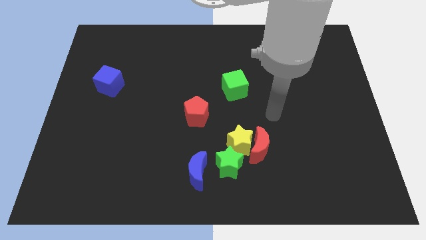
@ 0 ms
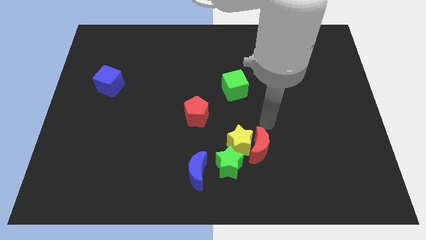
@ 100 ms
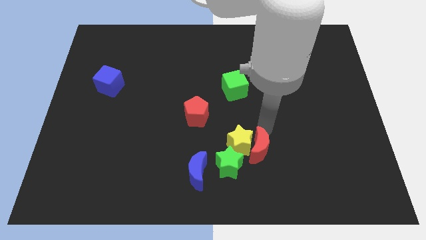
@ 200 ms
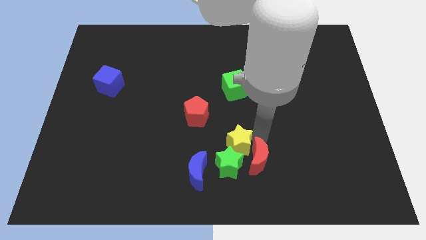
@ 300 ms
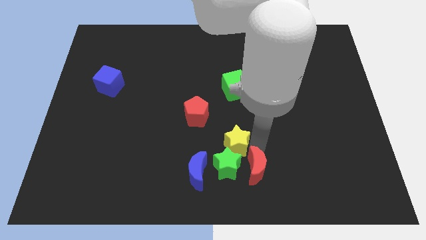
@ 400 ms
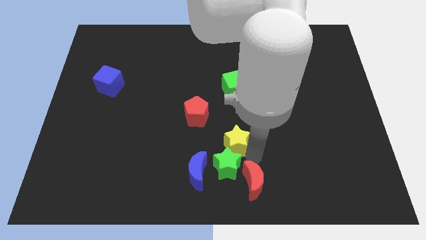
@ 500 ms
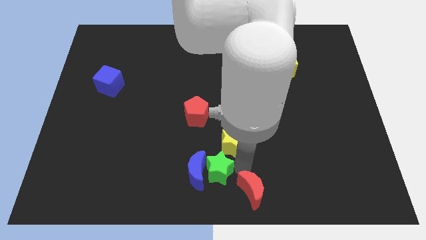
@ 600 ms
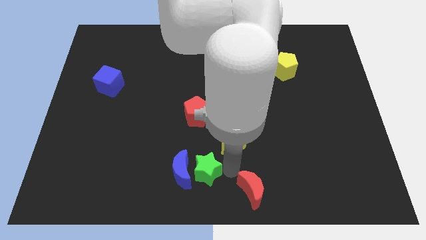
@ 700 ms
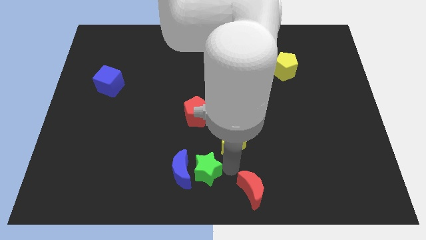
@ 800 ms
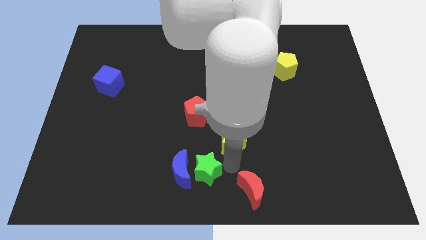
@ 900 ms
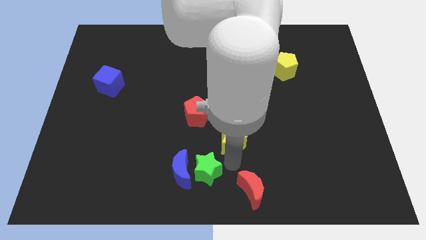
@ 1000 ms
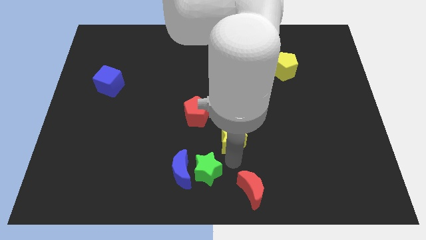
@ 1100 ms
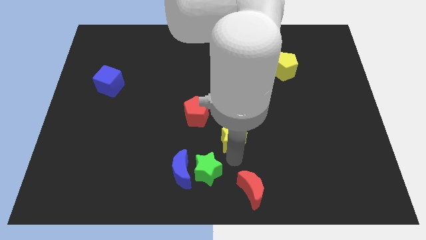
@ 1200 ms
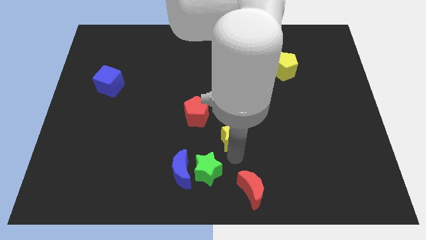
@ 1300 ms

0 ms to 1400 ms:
separate the yellow star from the red moon and green star

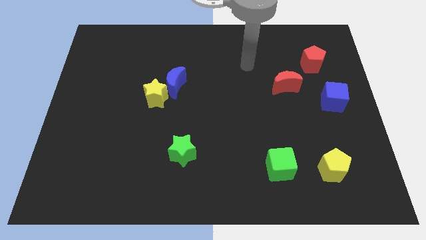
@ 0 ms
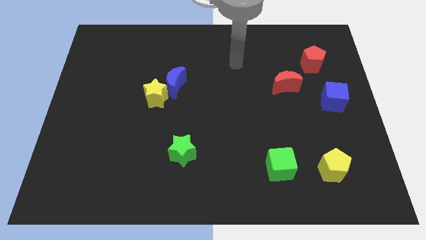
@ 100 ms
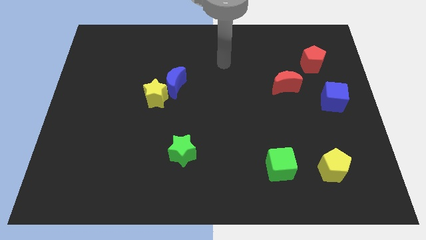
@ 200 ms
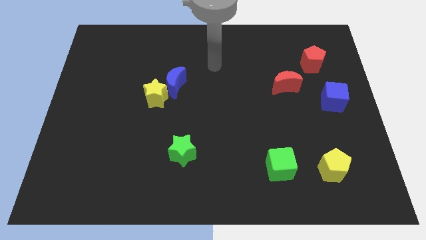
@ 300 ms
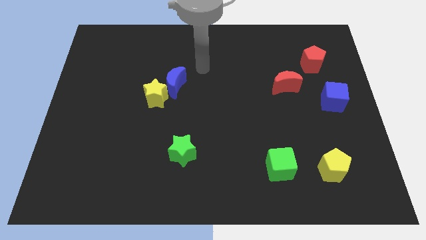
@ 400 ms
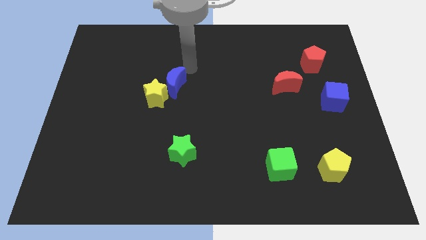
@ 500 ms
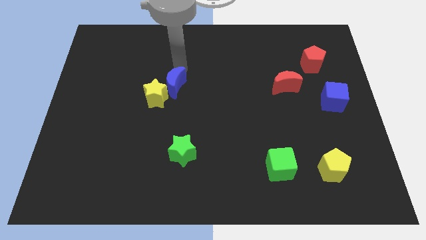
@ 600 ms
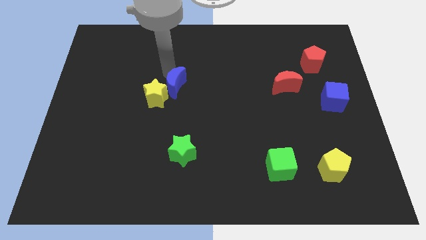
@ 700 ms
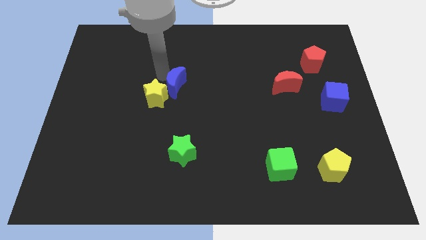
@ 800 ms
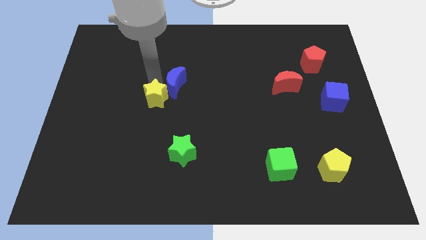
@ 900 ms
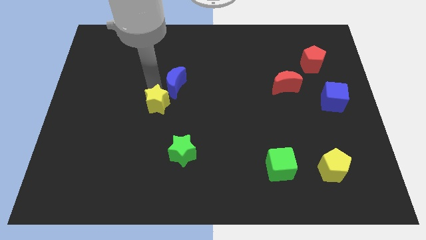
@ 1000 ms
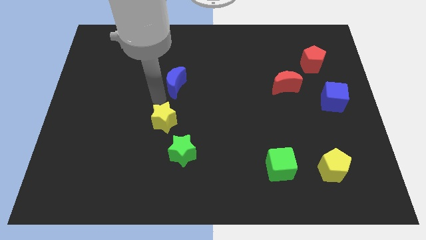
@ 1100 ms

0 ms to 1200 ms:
pull the blue moon apart from the yellow star

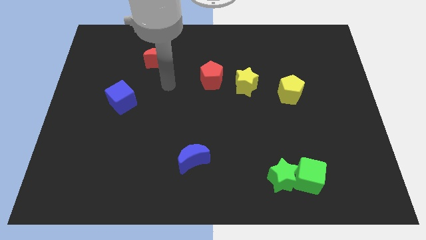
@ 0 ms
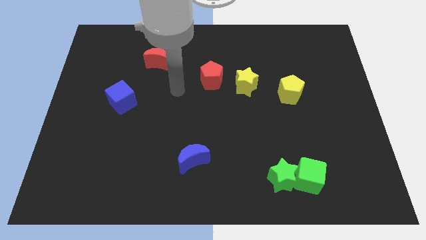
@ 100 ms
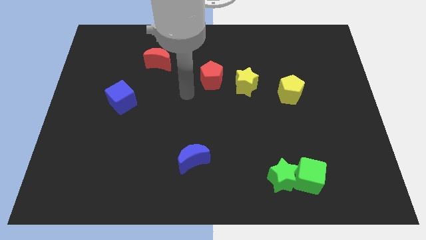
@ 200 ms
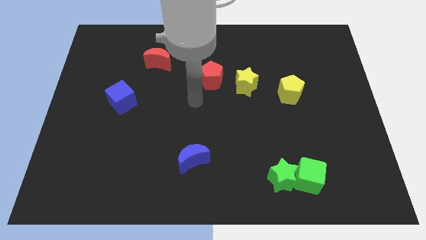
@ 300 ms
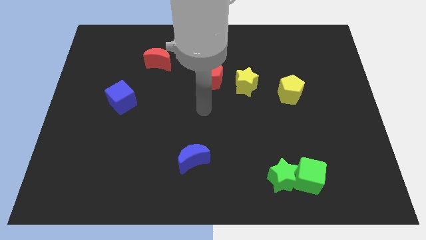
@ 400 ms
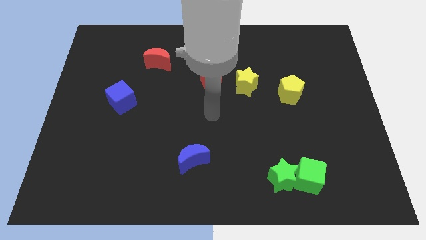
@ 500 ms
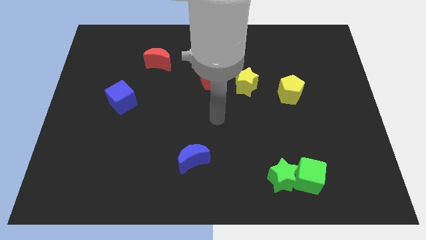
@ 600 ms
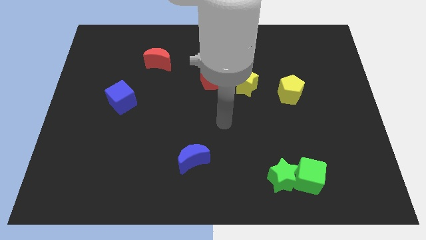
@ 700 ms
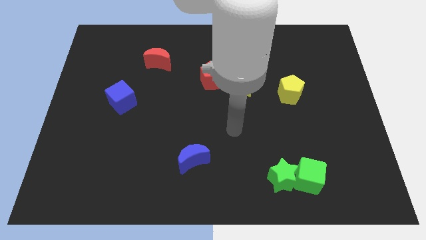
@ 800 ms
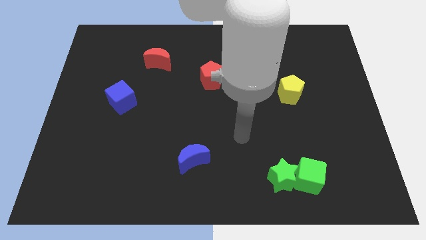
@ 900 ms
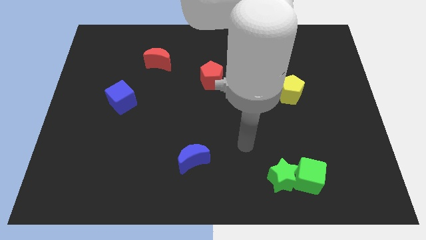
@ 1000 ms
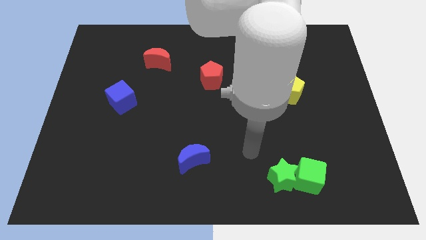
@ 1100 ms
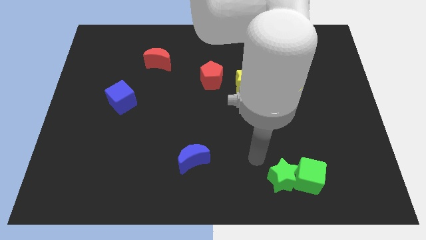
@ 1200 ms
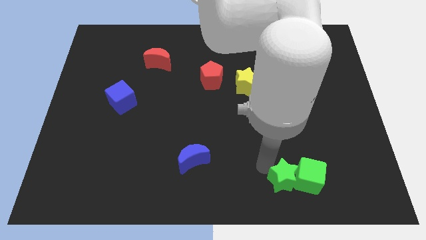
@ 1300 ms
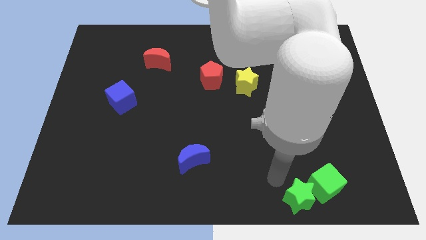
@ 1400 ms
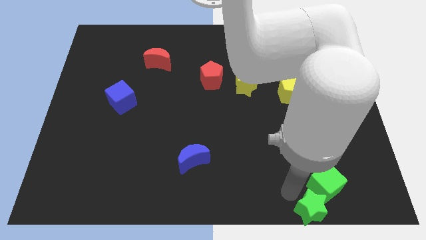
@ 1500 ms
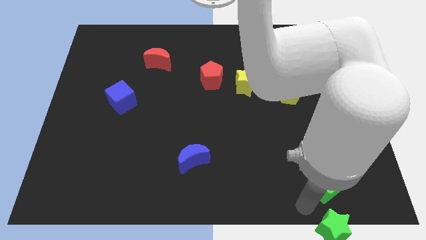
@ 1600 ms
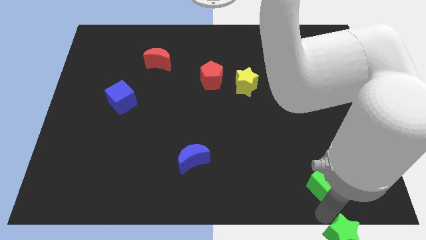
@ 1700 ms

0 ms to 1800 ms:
separate the green cube from the green star

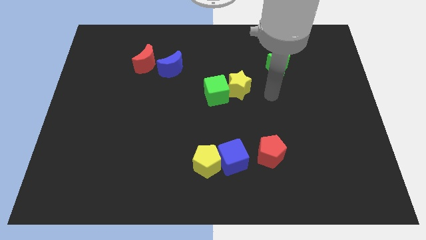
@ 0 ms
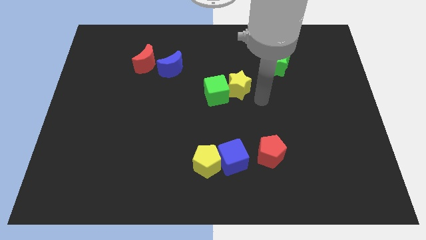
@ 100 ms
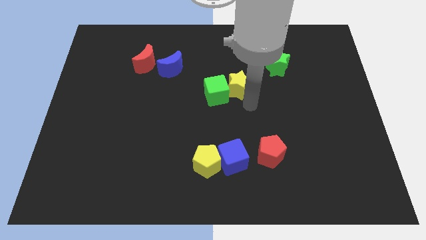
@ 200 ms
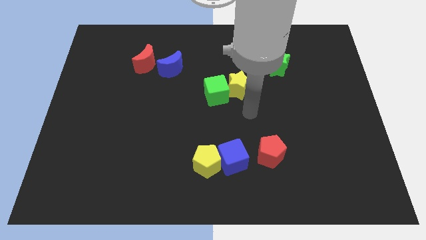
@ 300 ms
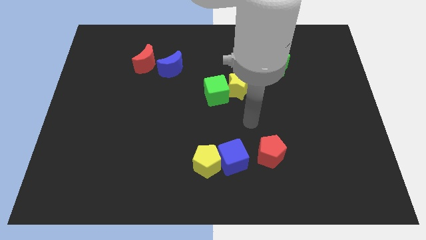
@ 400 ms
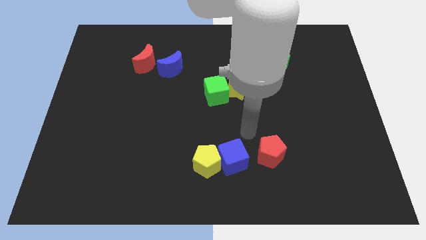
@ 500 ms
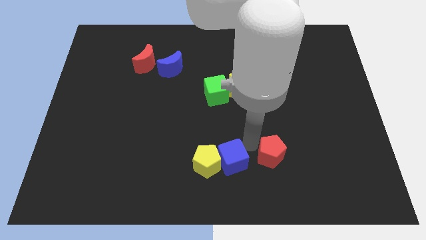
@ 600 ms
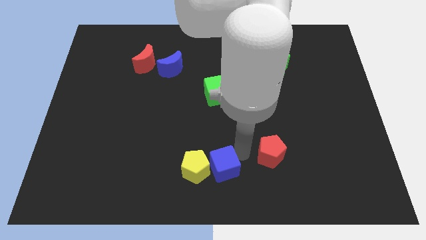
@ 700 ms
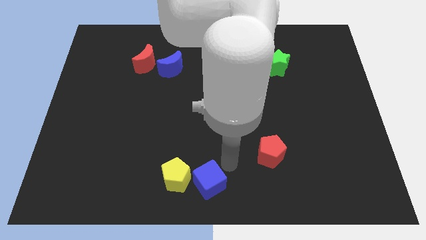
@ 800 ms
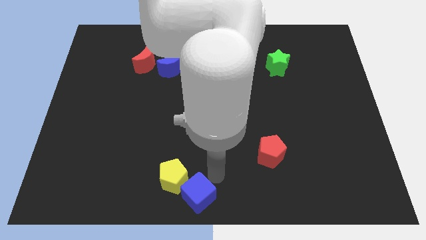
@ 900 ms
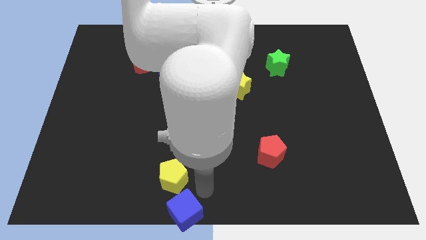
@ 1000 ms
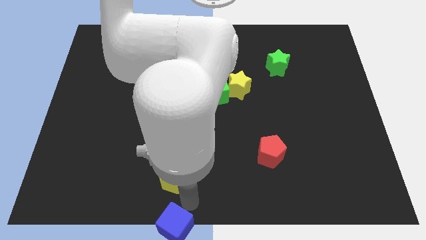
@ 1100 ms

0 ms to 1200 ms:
separate the yellow pentagon from the blue cube

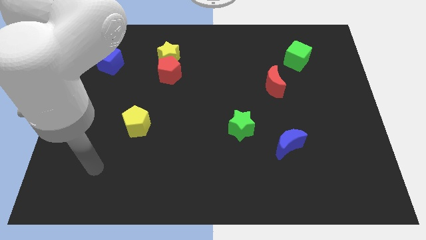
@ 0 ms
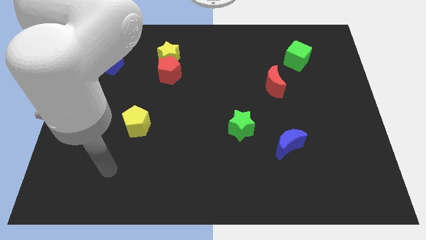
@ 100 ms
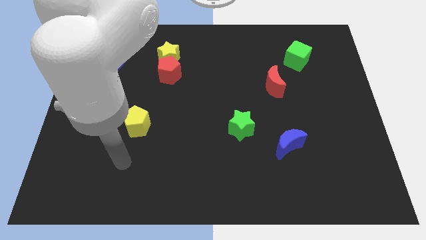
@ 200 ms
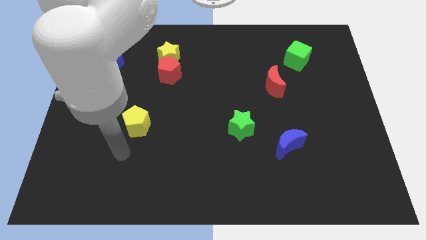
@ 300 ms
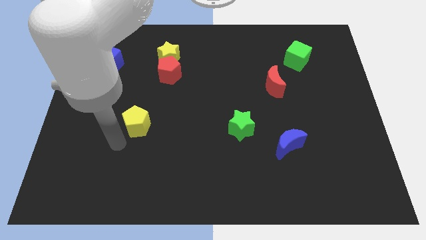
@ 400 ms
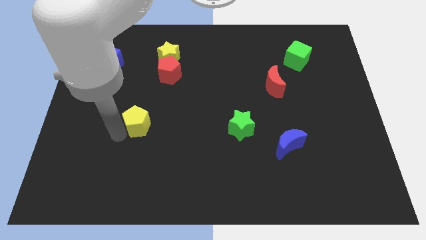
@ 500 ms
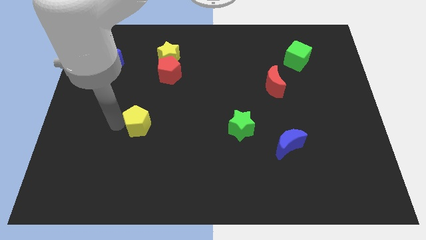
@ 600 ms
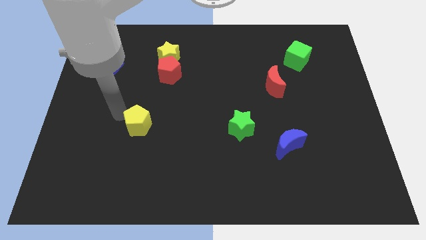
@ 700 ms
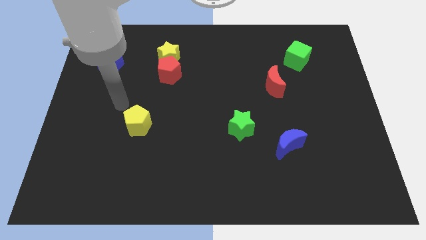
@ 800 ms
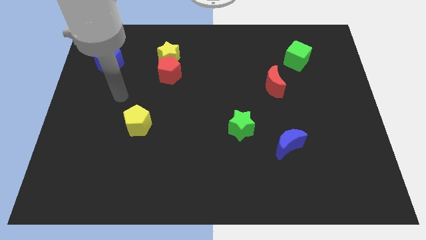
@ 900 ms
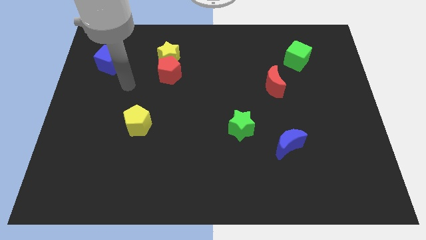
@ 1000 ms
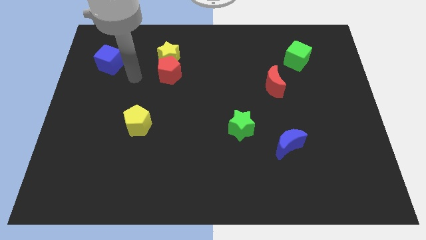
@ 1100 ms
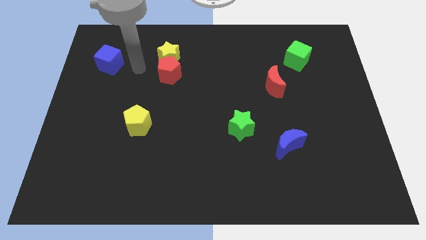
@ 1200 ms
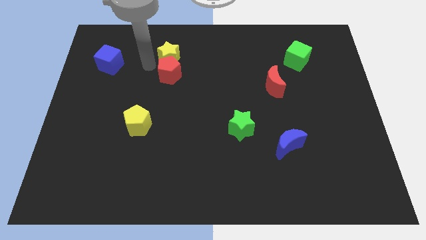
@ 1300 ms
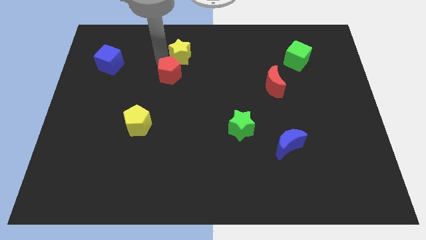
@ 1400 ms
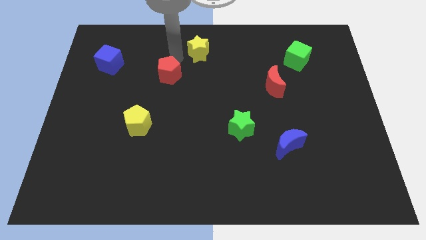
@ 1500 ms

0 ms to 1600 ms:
move the red pentagon away from the yellow star

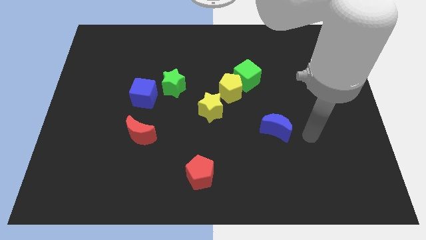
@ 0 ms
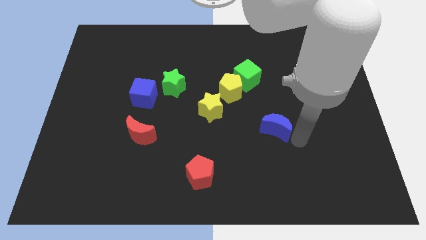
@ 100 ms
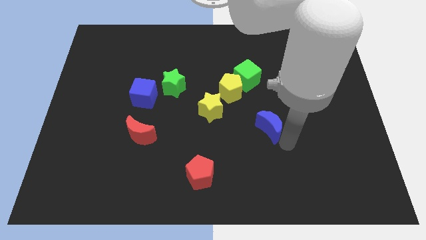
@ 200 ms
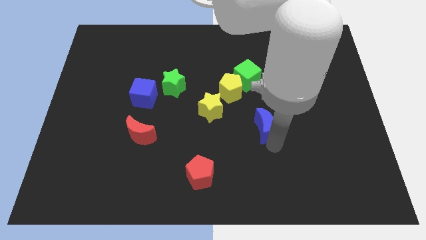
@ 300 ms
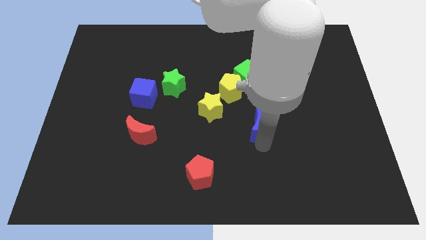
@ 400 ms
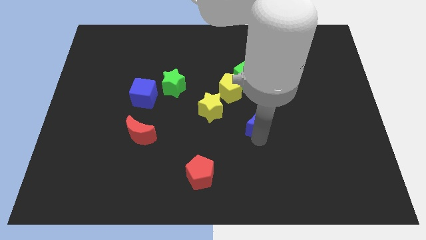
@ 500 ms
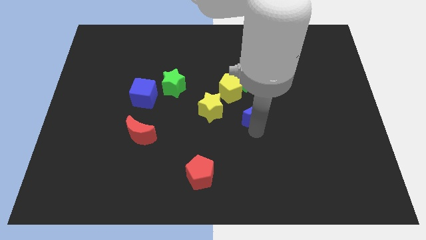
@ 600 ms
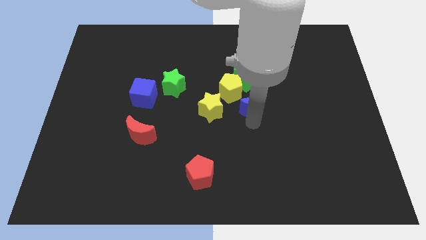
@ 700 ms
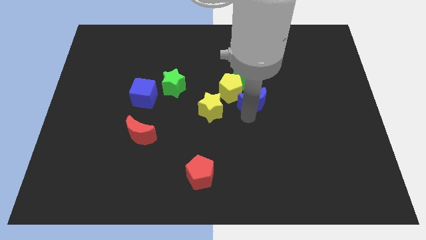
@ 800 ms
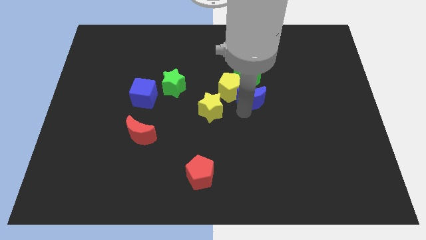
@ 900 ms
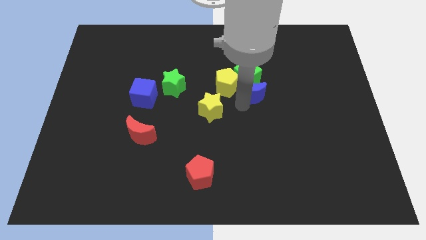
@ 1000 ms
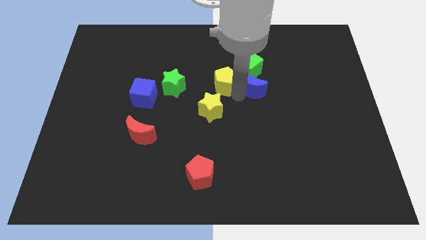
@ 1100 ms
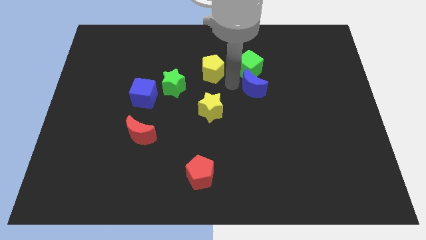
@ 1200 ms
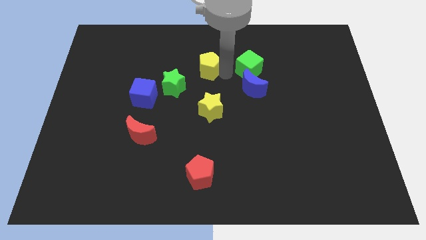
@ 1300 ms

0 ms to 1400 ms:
move the green cube away from the yellow pentagon

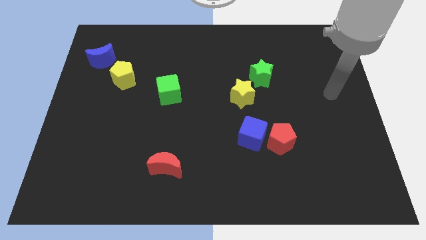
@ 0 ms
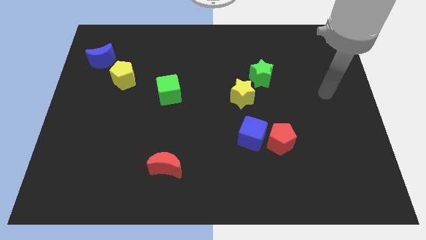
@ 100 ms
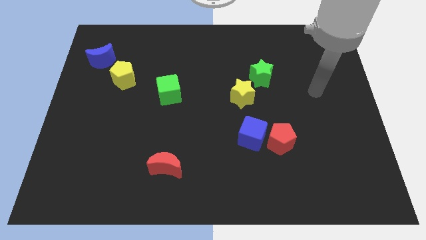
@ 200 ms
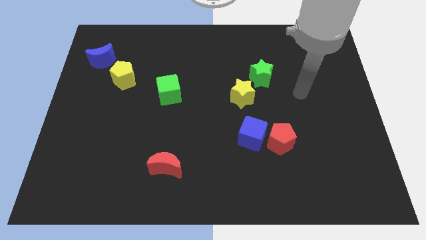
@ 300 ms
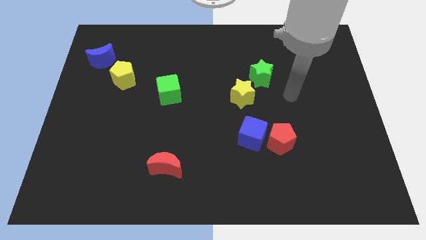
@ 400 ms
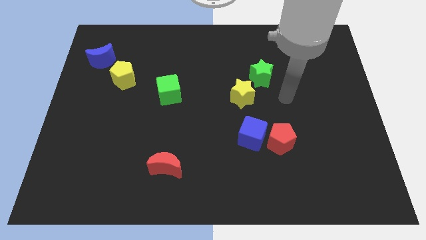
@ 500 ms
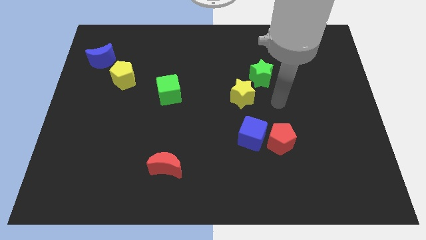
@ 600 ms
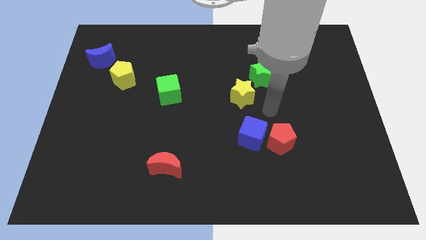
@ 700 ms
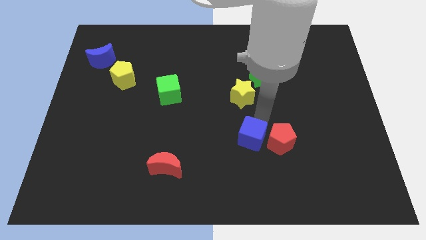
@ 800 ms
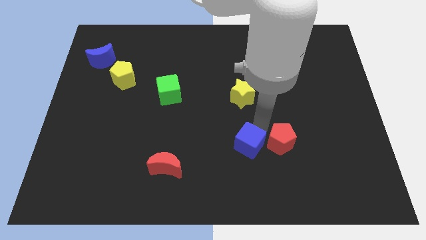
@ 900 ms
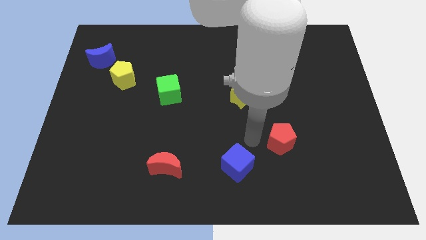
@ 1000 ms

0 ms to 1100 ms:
move the red pentagon away from the blue cube
